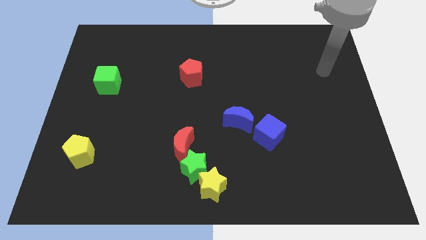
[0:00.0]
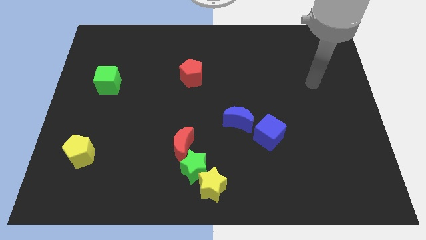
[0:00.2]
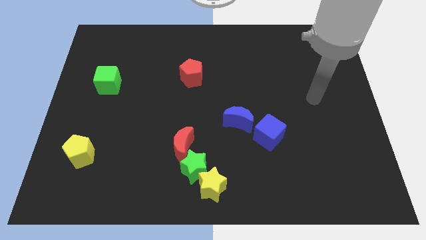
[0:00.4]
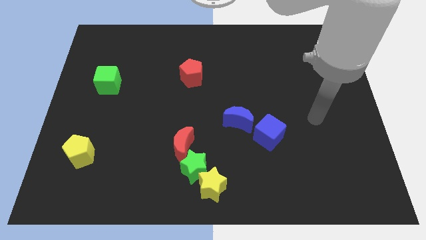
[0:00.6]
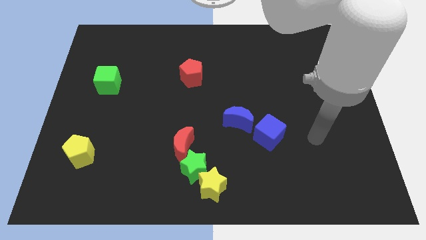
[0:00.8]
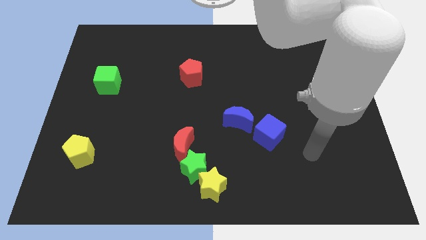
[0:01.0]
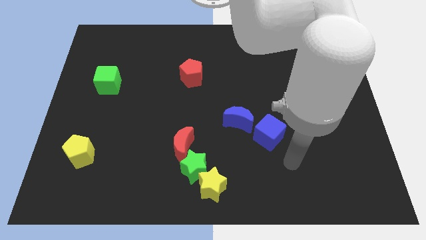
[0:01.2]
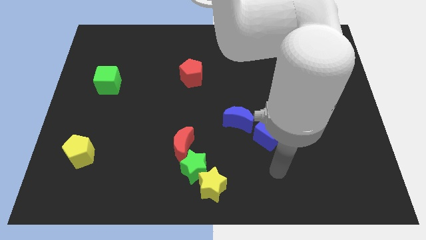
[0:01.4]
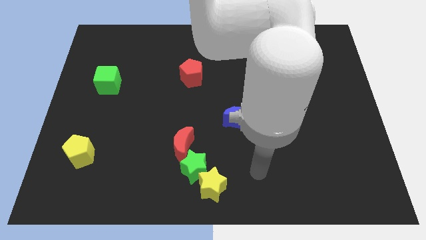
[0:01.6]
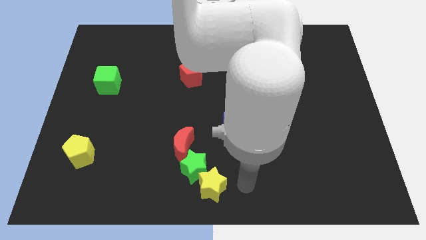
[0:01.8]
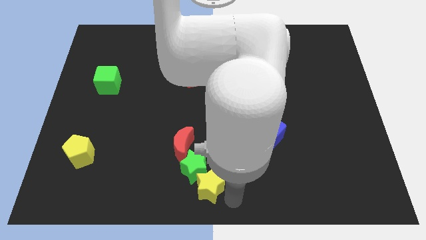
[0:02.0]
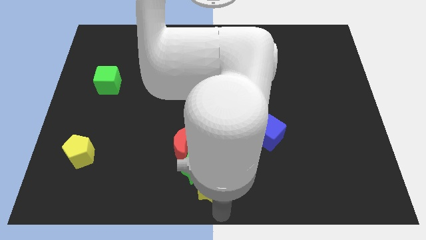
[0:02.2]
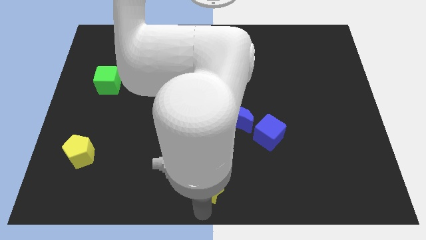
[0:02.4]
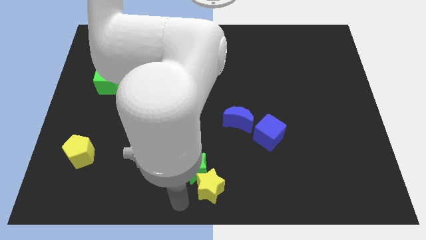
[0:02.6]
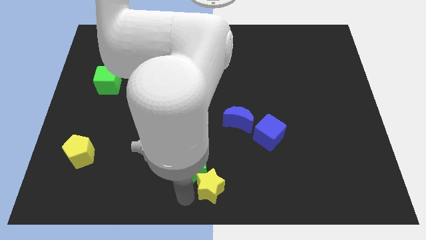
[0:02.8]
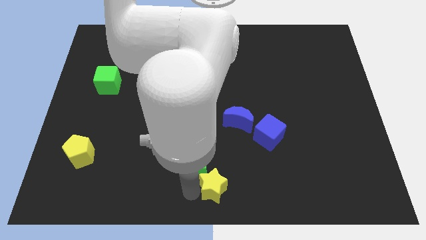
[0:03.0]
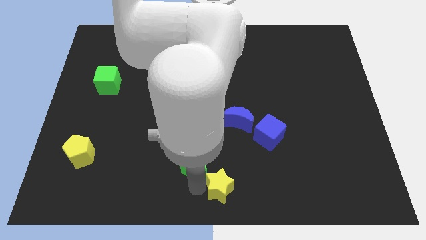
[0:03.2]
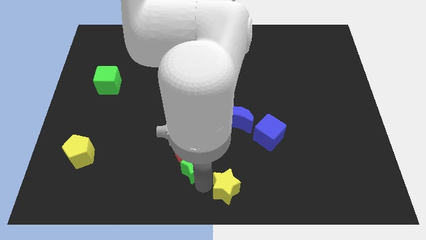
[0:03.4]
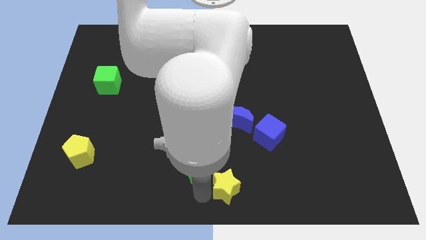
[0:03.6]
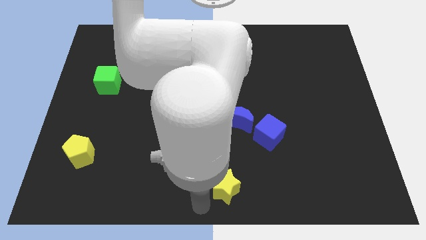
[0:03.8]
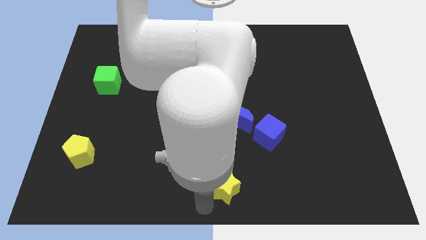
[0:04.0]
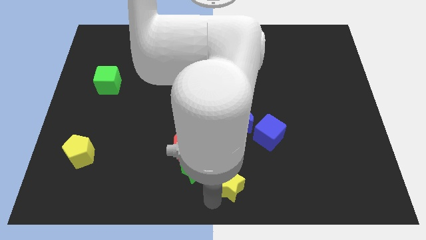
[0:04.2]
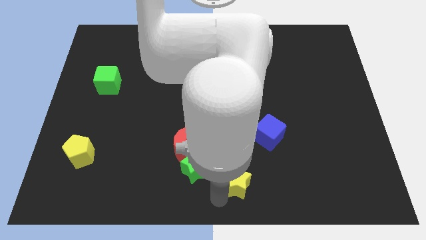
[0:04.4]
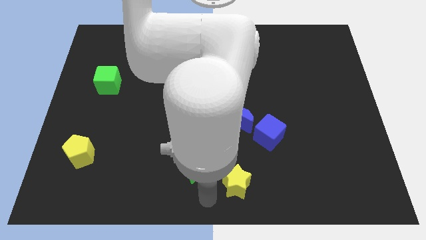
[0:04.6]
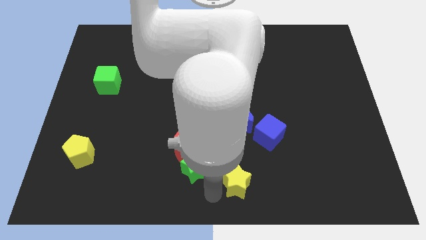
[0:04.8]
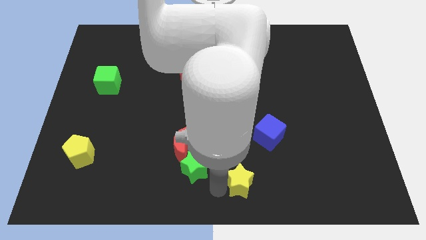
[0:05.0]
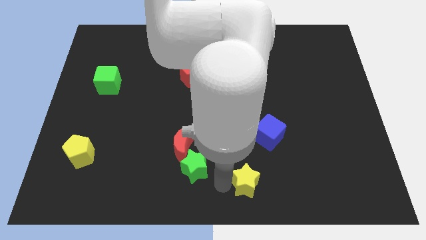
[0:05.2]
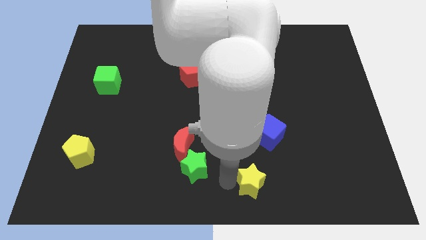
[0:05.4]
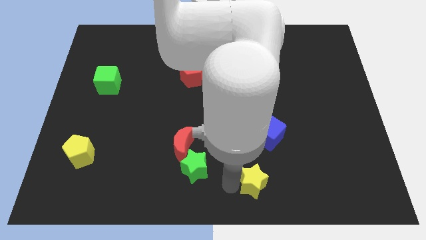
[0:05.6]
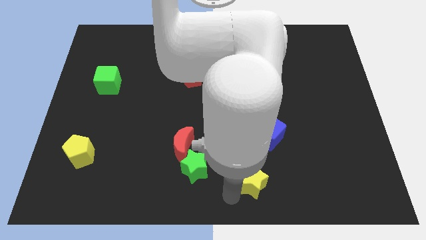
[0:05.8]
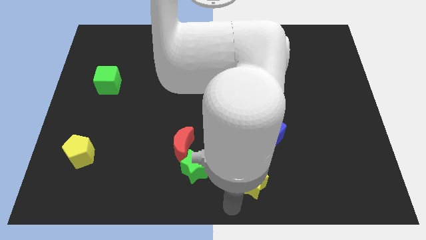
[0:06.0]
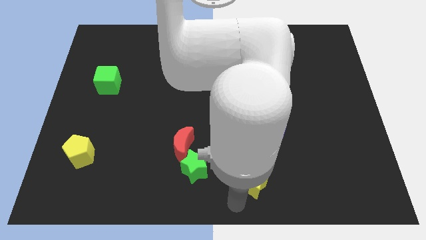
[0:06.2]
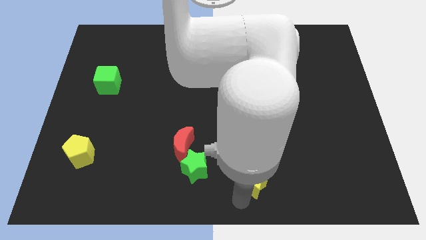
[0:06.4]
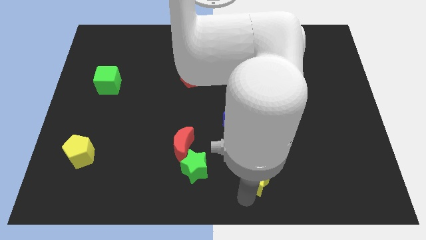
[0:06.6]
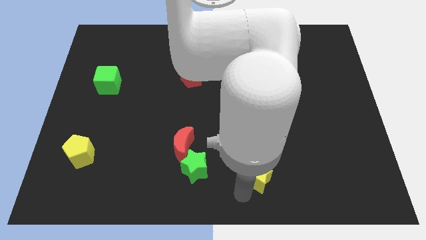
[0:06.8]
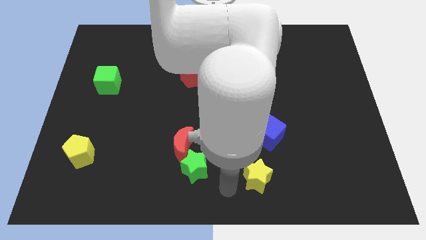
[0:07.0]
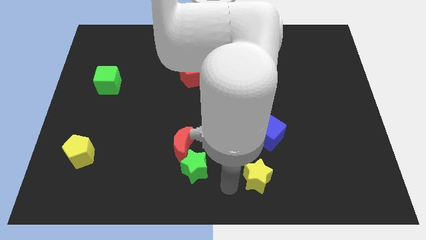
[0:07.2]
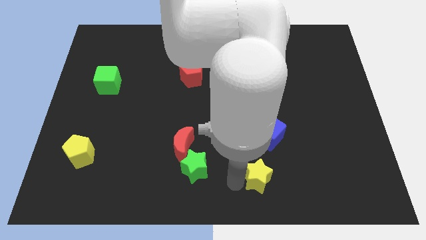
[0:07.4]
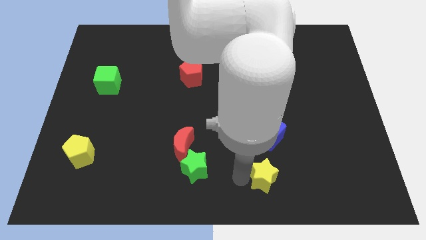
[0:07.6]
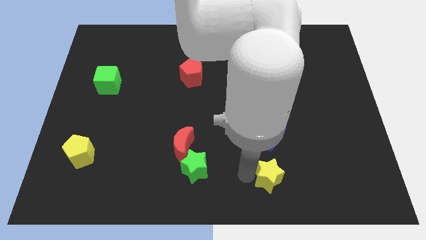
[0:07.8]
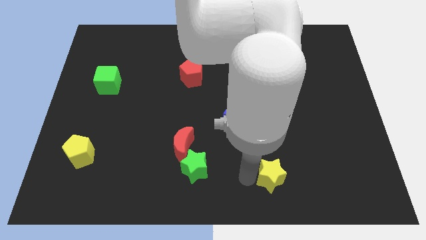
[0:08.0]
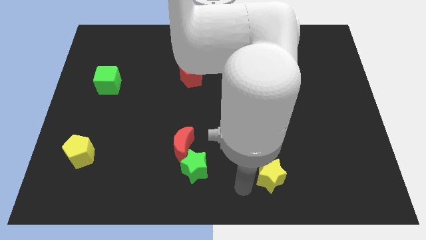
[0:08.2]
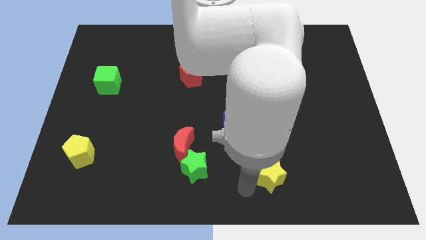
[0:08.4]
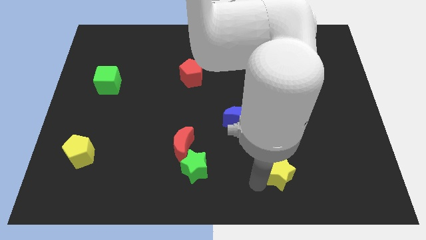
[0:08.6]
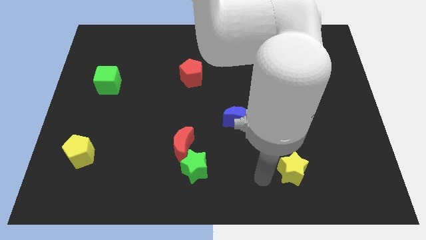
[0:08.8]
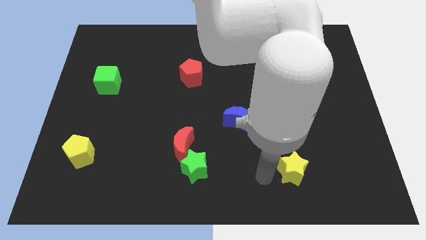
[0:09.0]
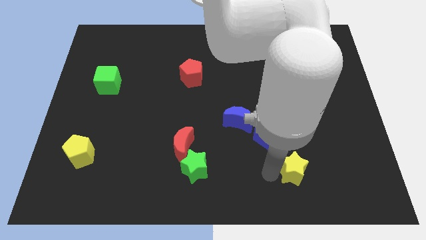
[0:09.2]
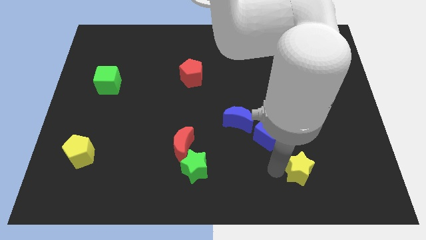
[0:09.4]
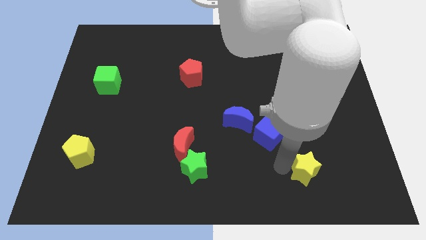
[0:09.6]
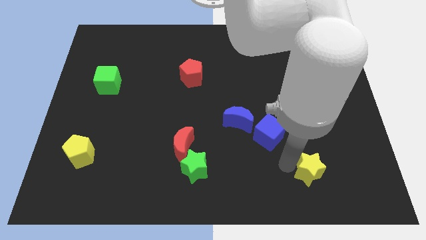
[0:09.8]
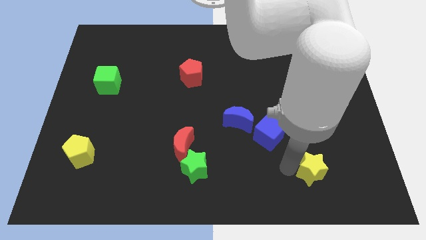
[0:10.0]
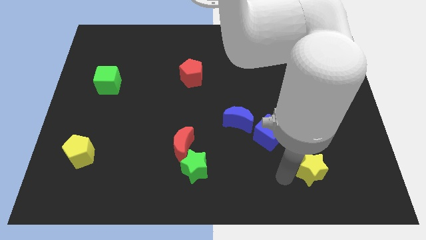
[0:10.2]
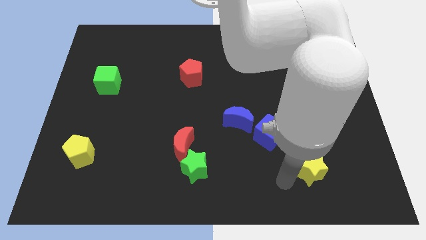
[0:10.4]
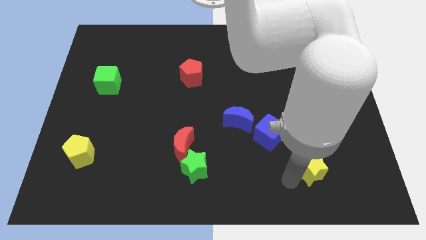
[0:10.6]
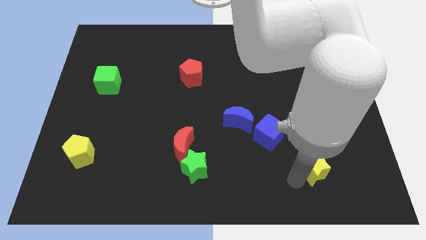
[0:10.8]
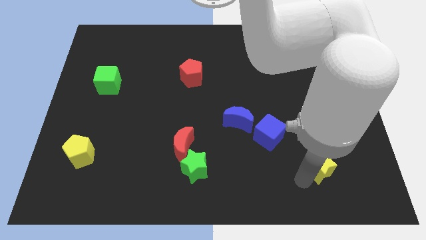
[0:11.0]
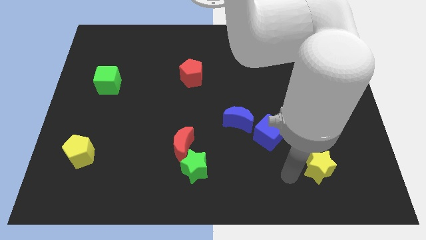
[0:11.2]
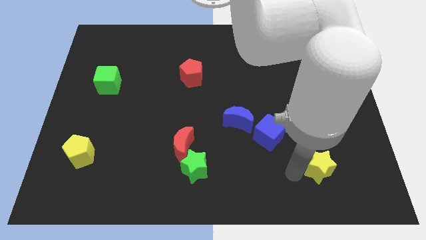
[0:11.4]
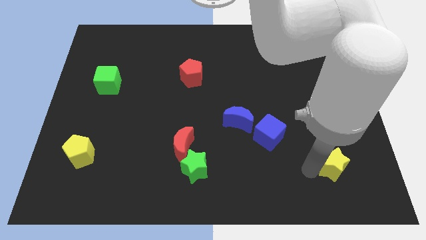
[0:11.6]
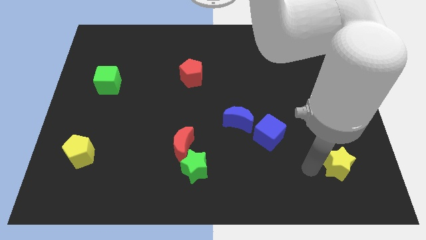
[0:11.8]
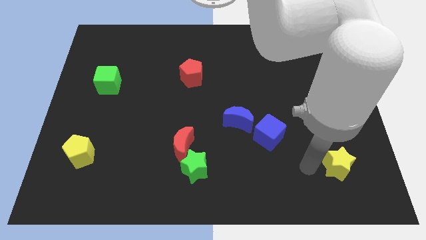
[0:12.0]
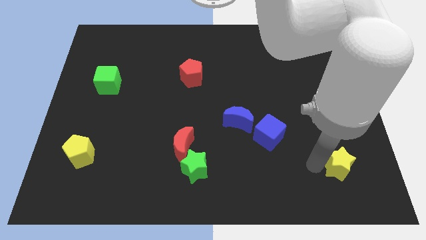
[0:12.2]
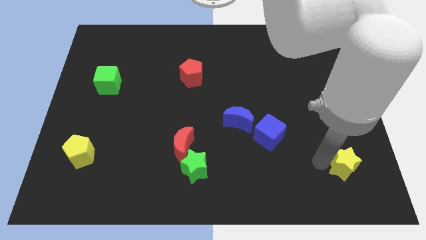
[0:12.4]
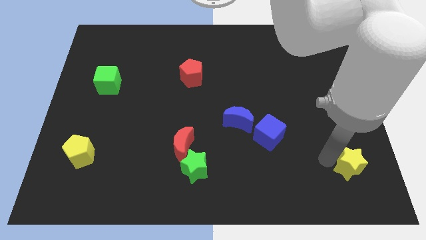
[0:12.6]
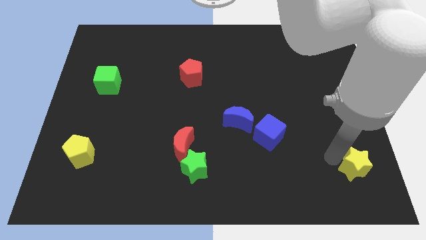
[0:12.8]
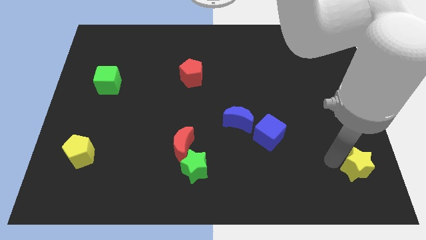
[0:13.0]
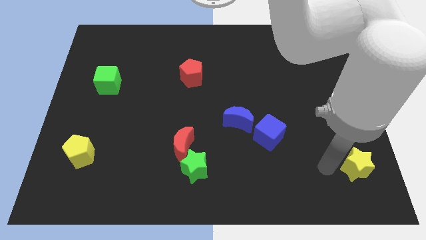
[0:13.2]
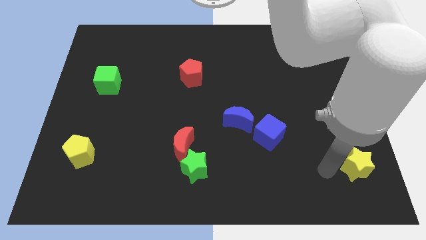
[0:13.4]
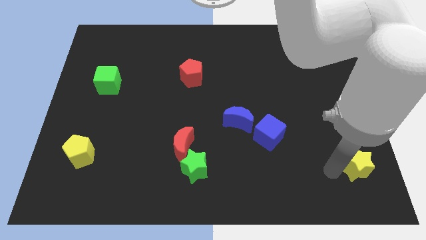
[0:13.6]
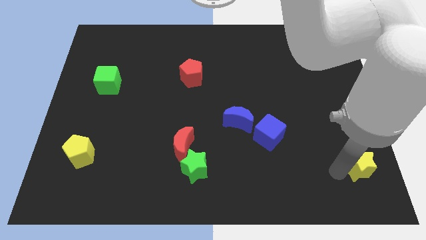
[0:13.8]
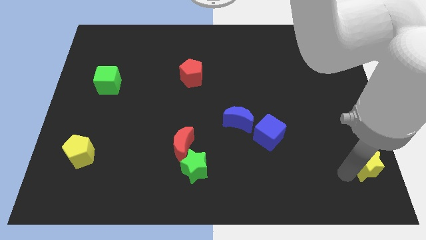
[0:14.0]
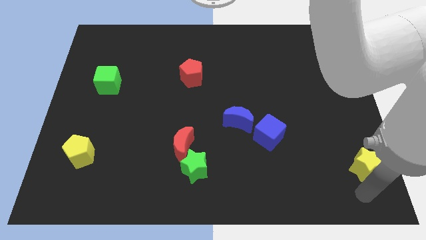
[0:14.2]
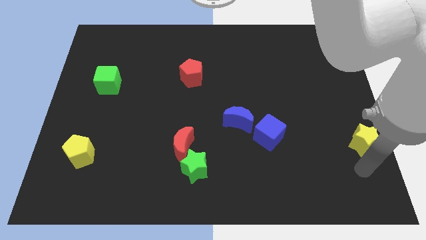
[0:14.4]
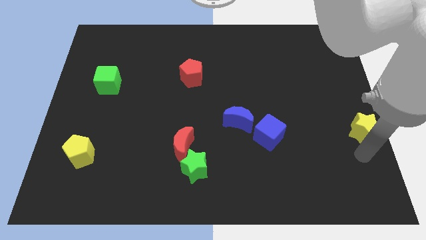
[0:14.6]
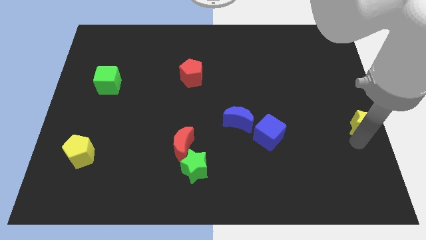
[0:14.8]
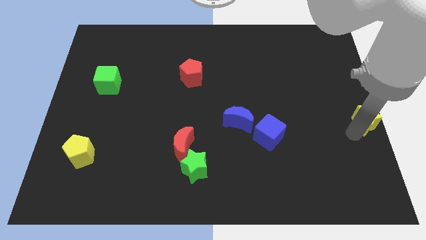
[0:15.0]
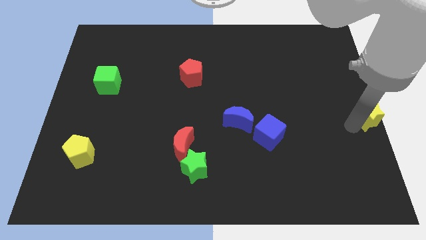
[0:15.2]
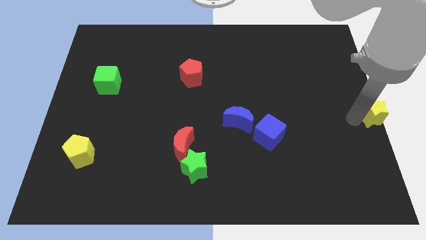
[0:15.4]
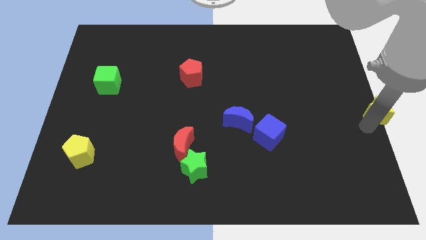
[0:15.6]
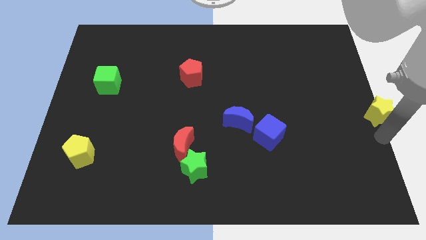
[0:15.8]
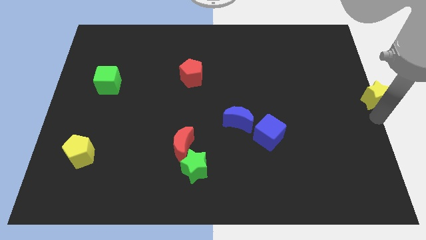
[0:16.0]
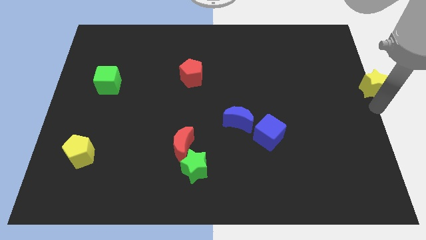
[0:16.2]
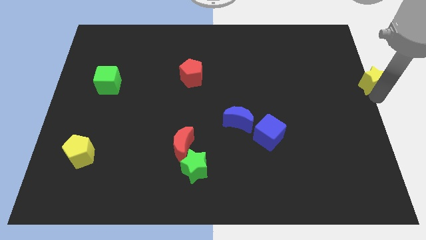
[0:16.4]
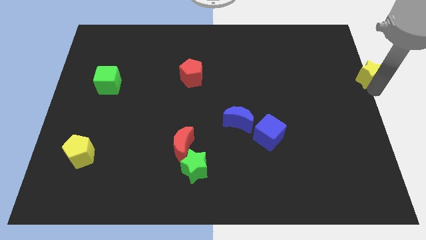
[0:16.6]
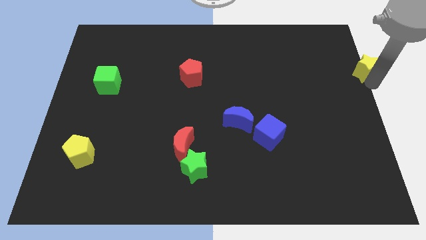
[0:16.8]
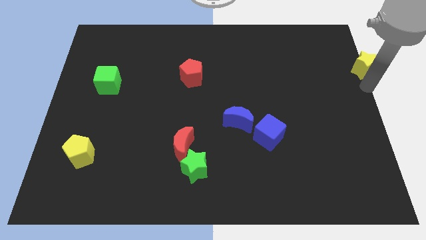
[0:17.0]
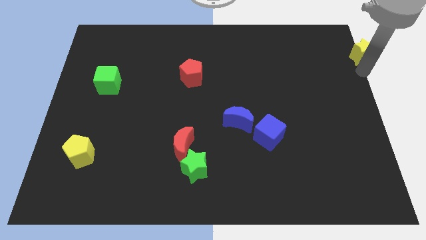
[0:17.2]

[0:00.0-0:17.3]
push the yellow star to the top right of the board
